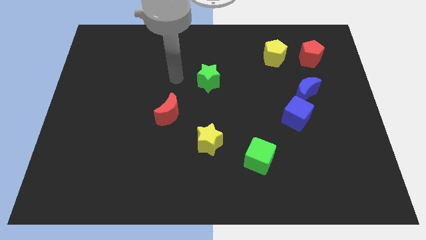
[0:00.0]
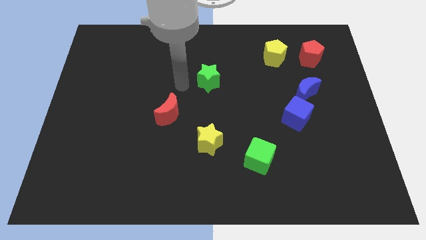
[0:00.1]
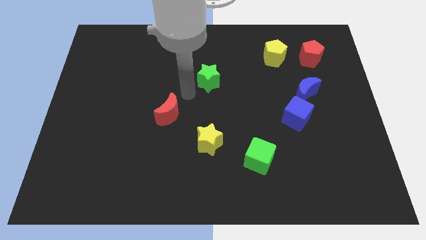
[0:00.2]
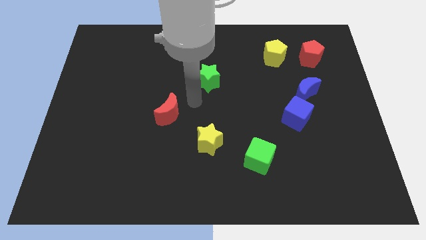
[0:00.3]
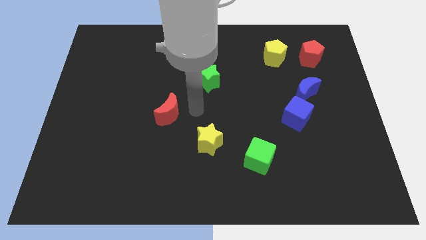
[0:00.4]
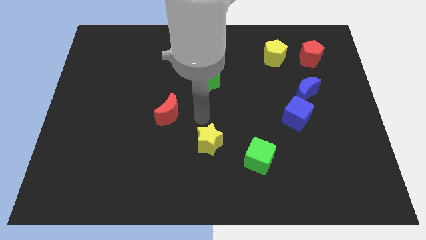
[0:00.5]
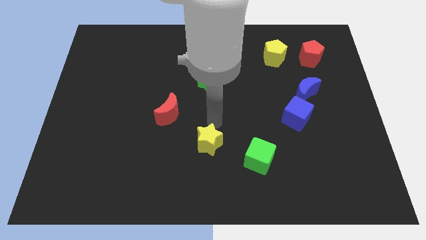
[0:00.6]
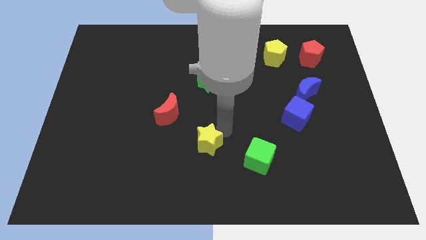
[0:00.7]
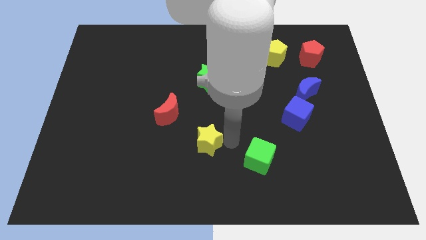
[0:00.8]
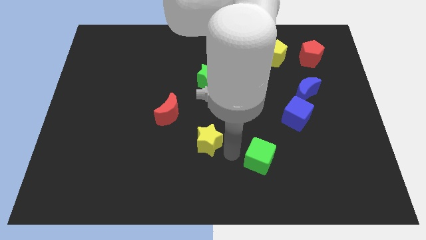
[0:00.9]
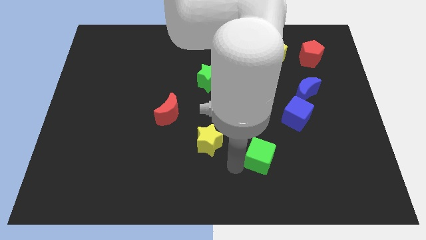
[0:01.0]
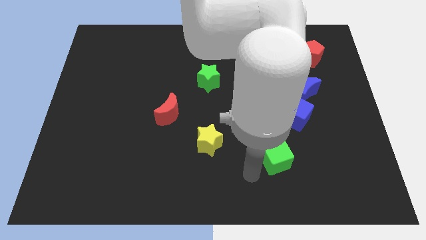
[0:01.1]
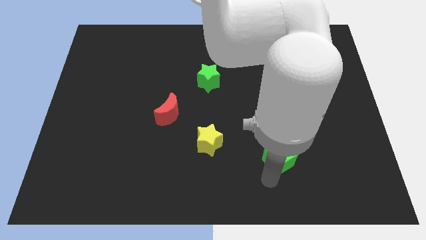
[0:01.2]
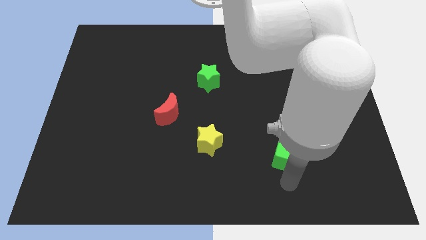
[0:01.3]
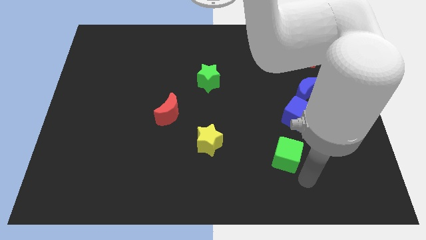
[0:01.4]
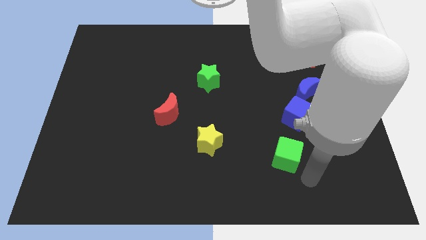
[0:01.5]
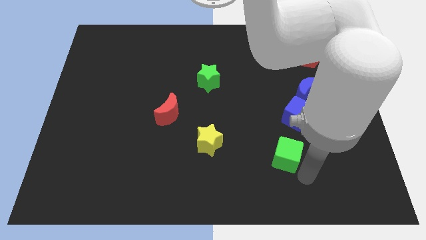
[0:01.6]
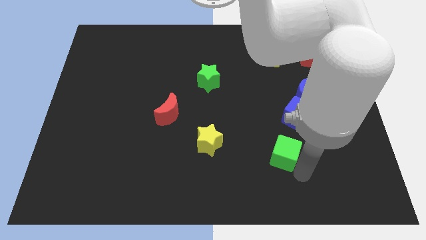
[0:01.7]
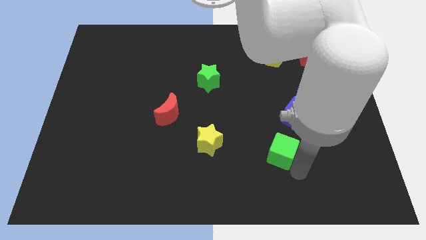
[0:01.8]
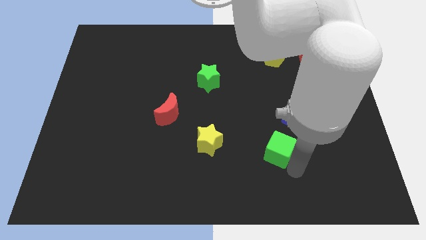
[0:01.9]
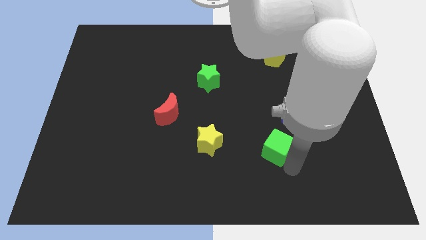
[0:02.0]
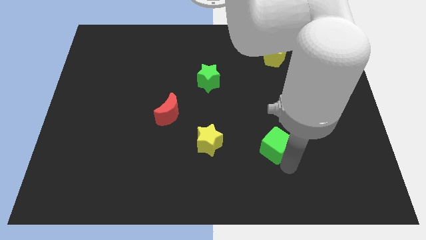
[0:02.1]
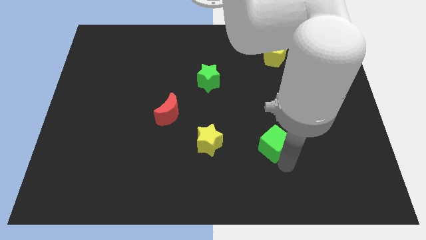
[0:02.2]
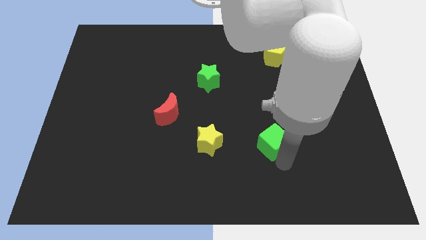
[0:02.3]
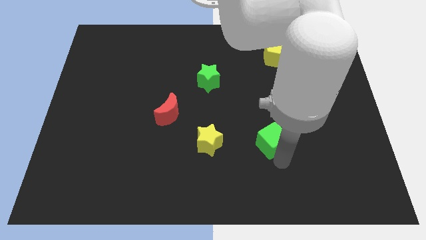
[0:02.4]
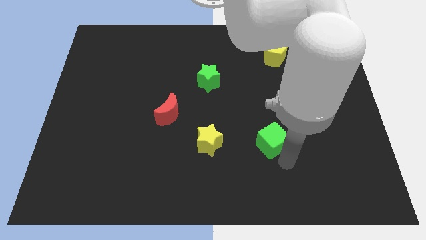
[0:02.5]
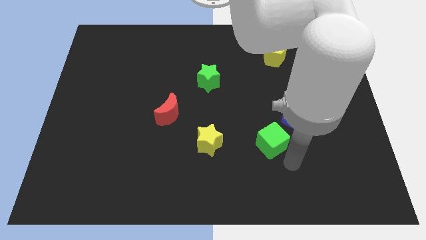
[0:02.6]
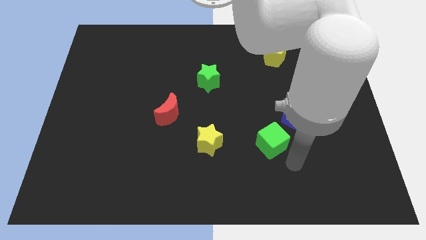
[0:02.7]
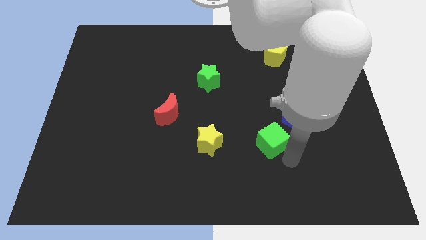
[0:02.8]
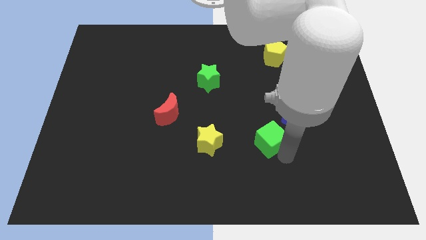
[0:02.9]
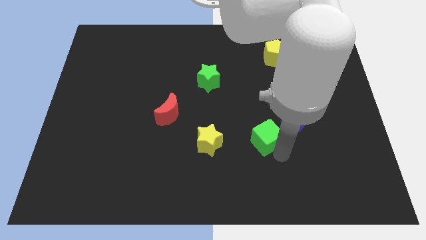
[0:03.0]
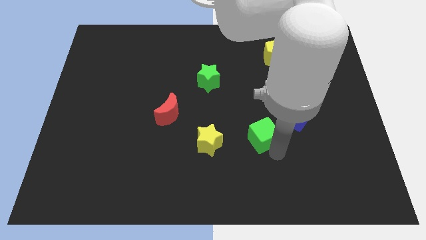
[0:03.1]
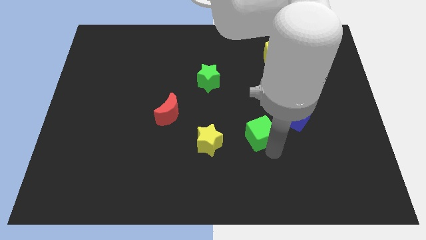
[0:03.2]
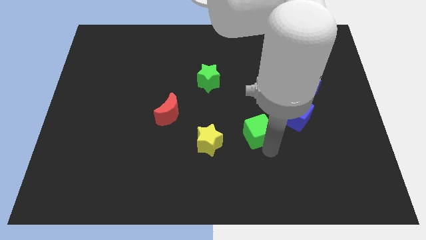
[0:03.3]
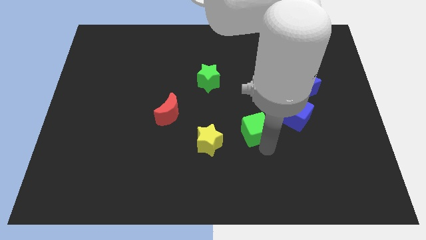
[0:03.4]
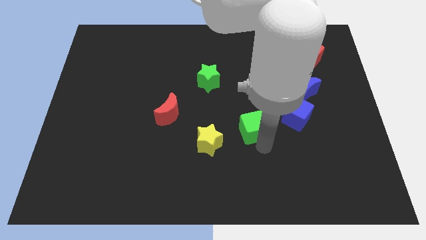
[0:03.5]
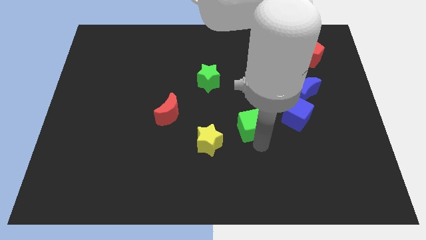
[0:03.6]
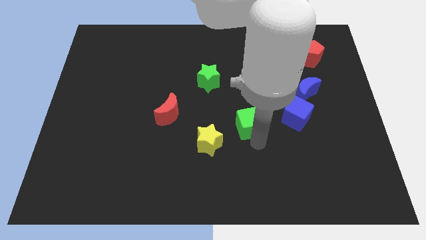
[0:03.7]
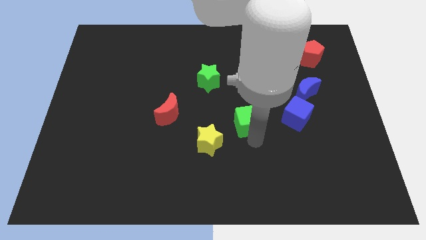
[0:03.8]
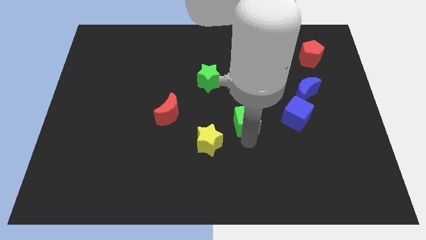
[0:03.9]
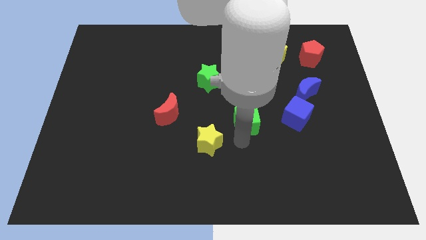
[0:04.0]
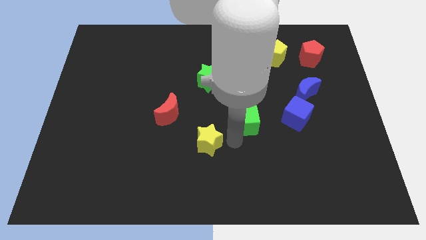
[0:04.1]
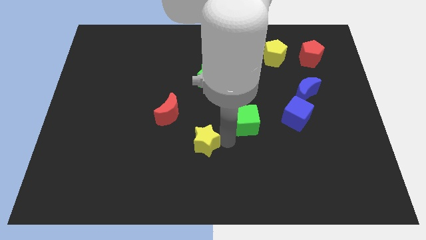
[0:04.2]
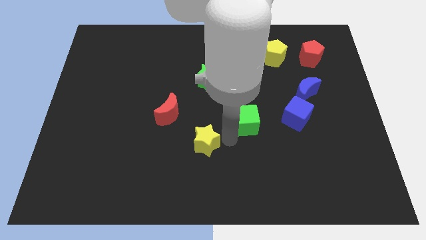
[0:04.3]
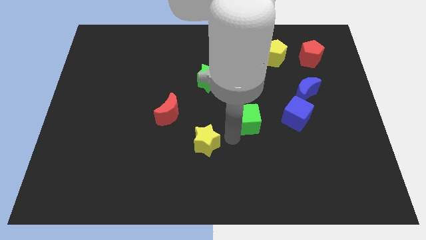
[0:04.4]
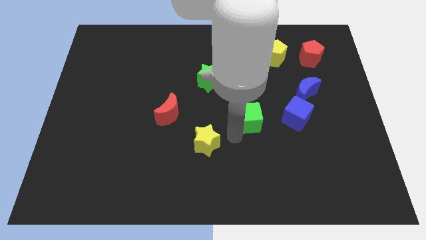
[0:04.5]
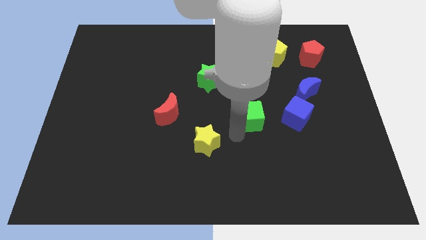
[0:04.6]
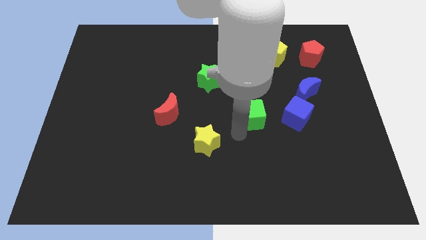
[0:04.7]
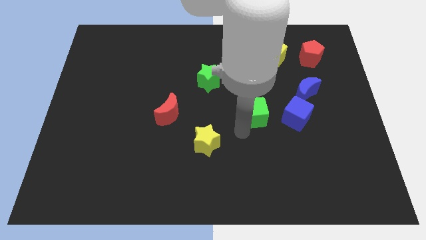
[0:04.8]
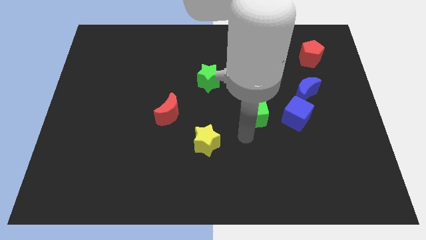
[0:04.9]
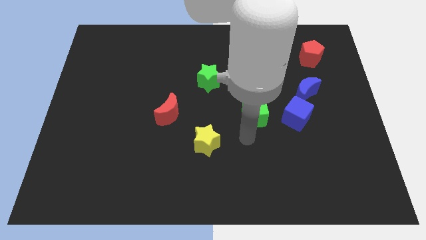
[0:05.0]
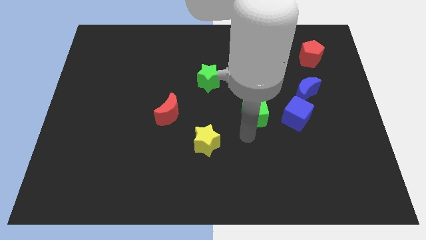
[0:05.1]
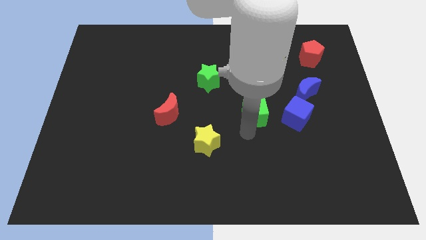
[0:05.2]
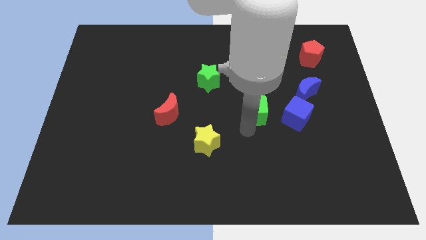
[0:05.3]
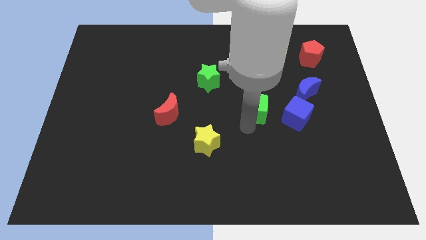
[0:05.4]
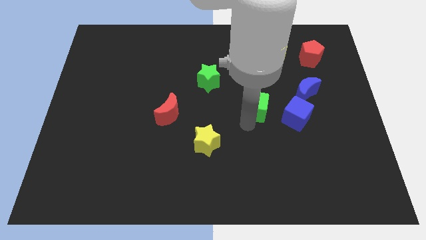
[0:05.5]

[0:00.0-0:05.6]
put the green cube to the left side of the blue moon

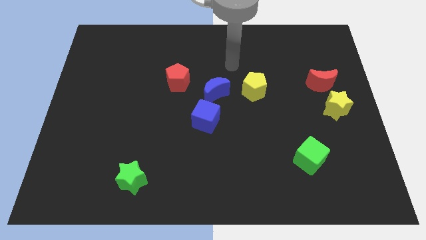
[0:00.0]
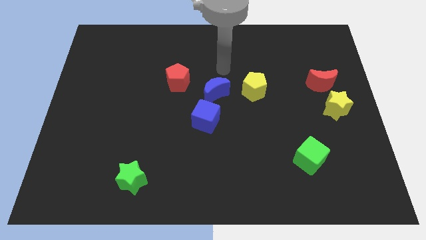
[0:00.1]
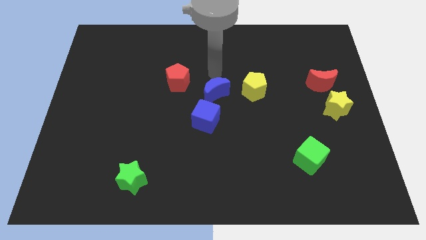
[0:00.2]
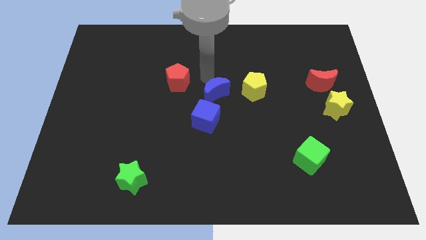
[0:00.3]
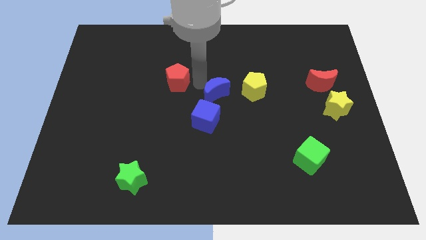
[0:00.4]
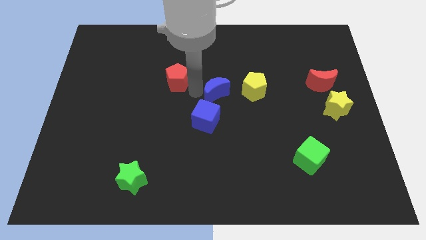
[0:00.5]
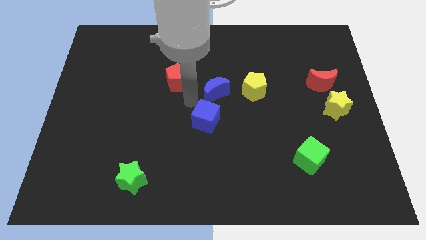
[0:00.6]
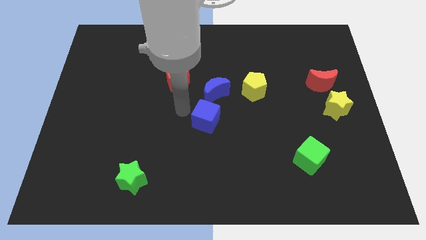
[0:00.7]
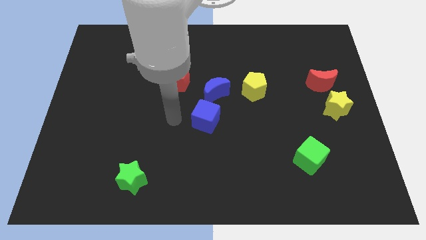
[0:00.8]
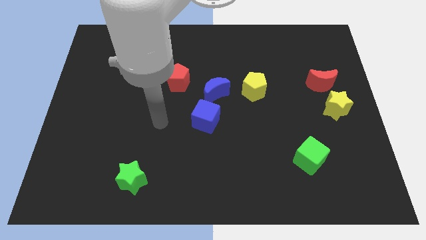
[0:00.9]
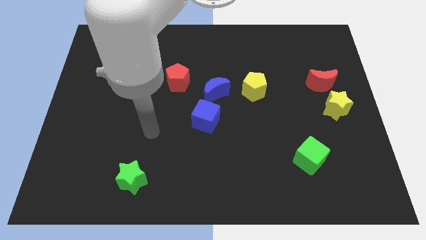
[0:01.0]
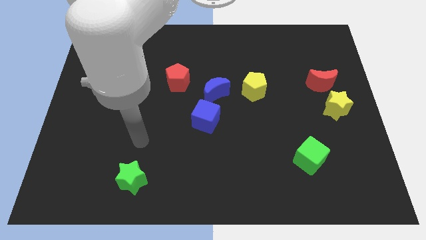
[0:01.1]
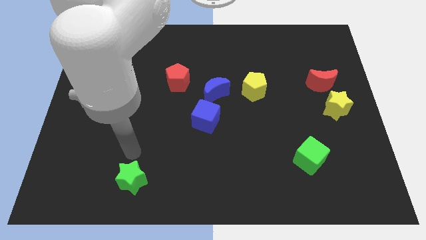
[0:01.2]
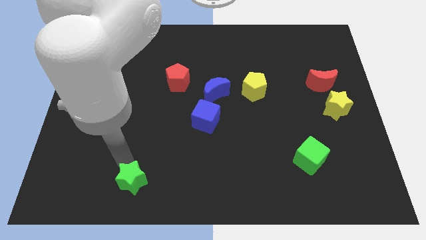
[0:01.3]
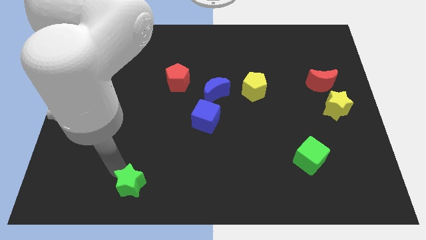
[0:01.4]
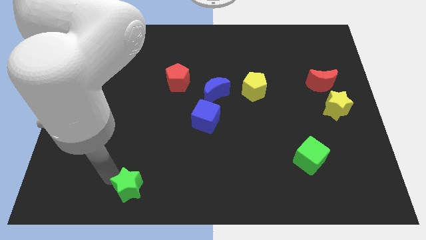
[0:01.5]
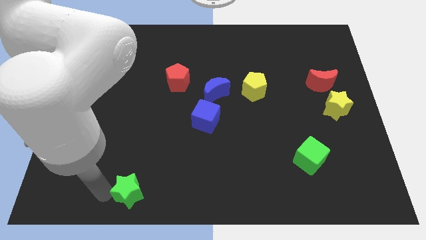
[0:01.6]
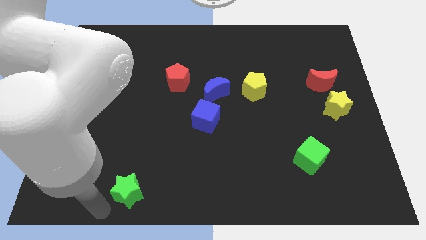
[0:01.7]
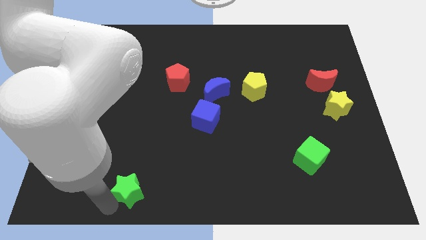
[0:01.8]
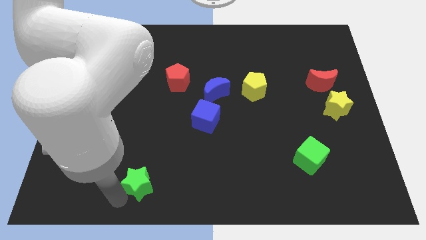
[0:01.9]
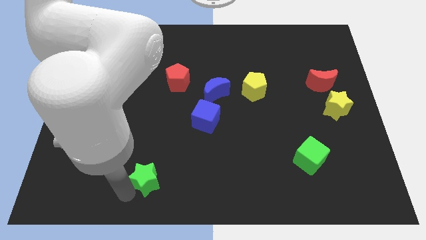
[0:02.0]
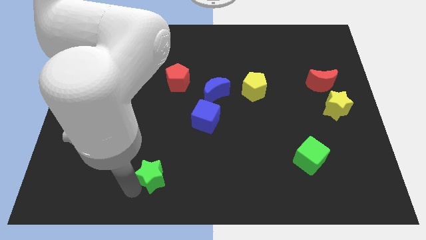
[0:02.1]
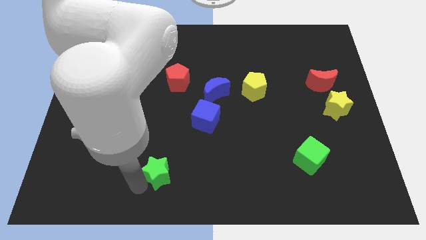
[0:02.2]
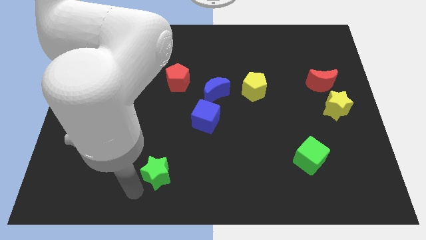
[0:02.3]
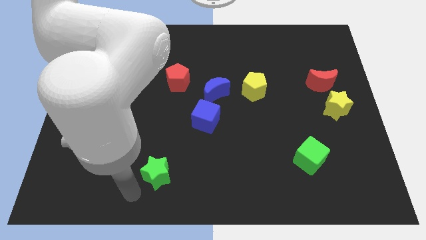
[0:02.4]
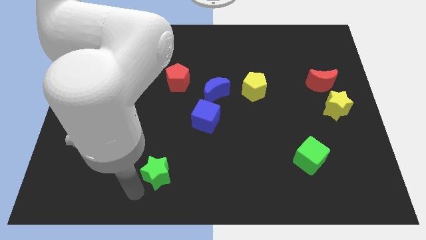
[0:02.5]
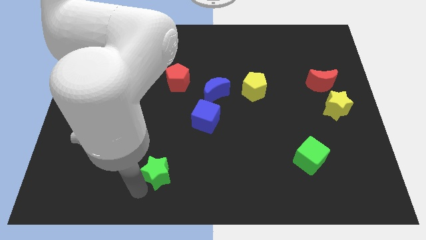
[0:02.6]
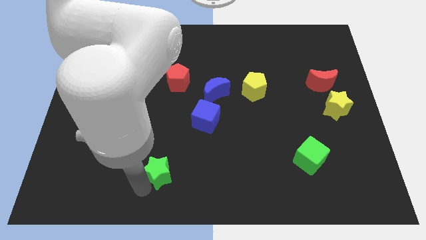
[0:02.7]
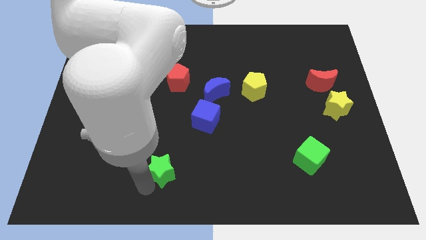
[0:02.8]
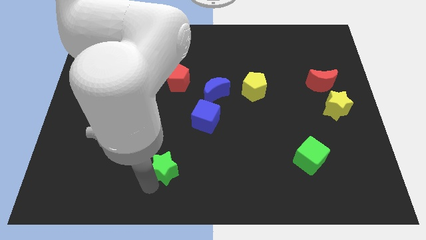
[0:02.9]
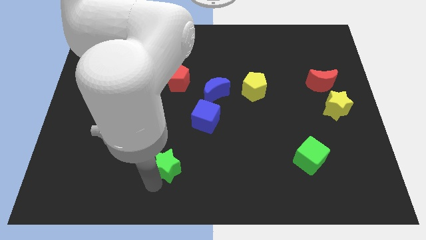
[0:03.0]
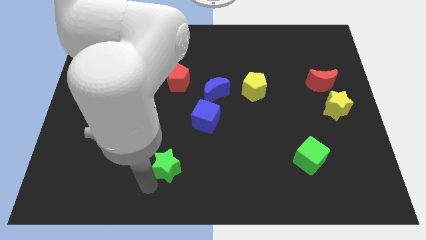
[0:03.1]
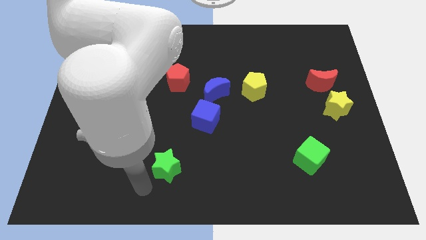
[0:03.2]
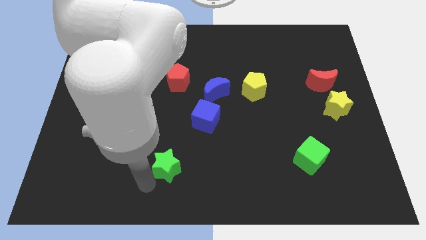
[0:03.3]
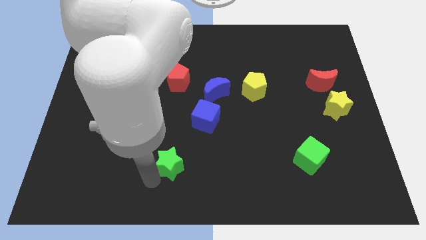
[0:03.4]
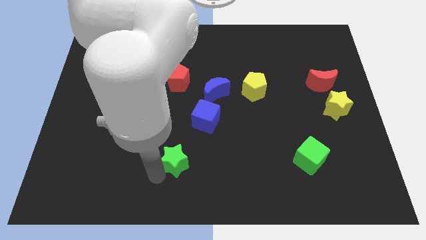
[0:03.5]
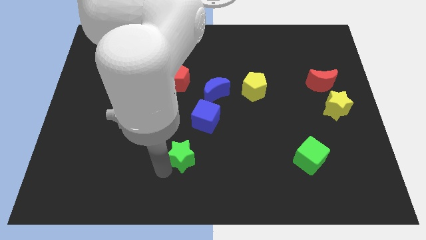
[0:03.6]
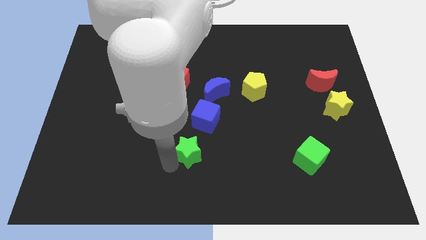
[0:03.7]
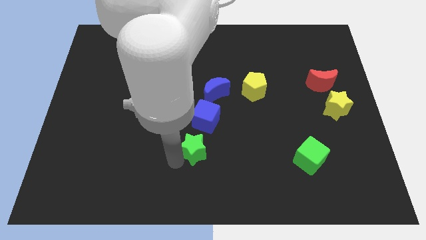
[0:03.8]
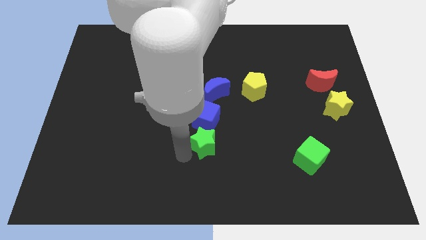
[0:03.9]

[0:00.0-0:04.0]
push the green star diagonally down and to the right of the blue cube
